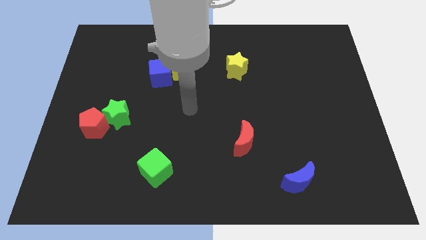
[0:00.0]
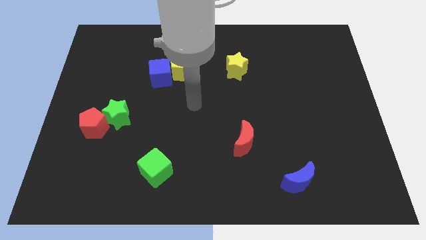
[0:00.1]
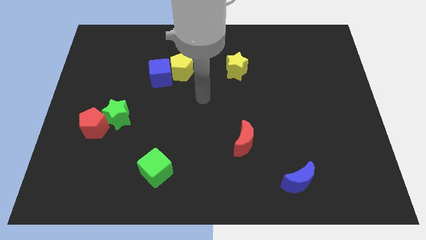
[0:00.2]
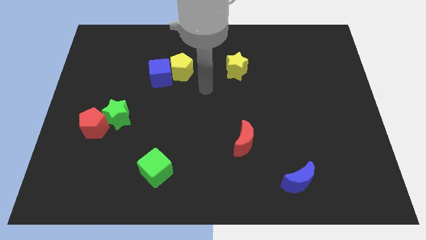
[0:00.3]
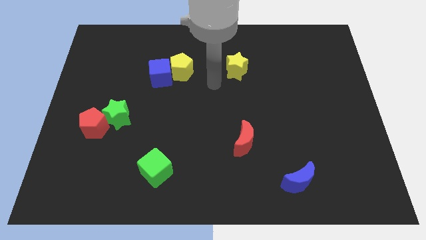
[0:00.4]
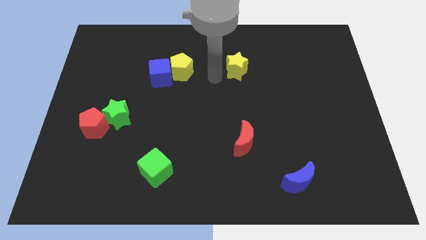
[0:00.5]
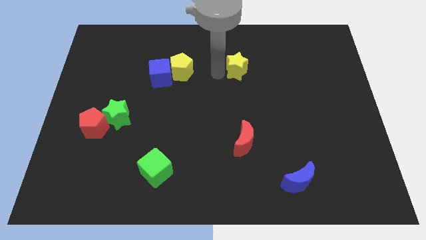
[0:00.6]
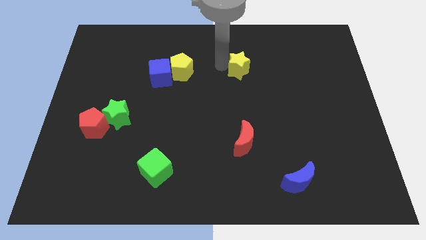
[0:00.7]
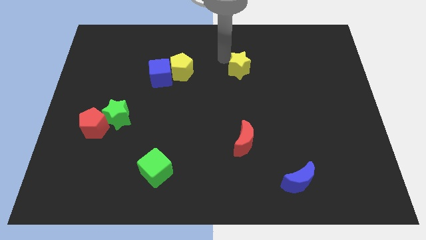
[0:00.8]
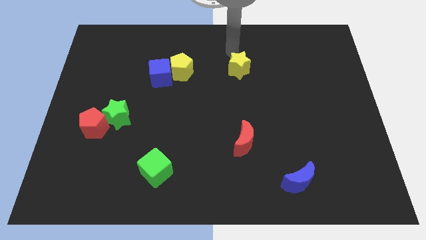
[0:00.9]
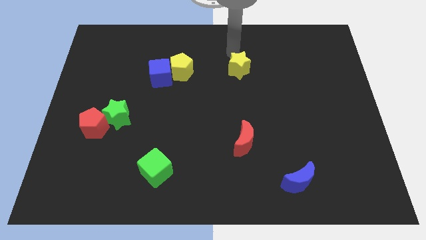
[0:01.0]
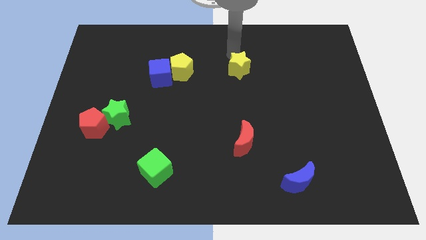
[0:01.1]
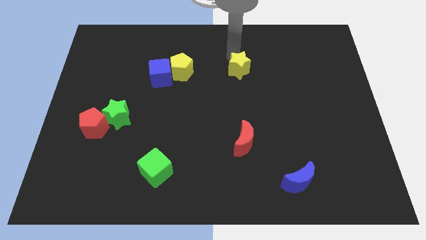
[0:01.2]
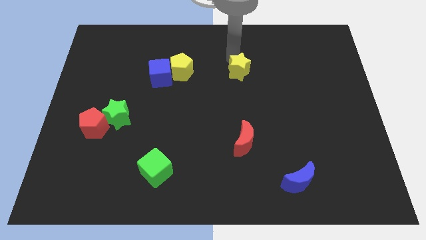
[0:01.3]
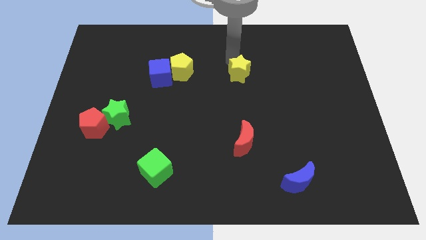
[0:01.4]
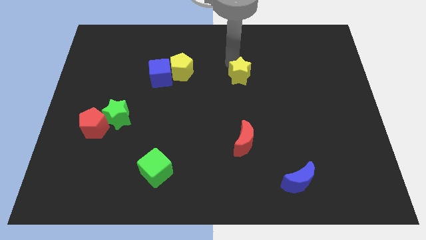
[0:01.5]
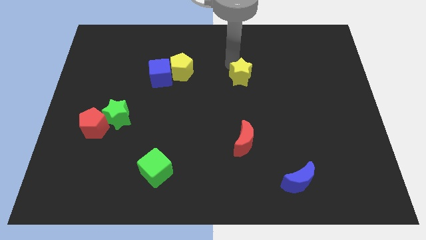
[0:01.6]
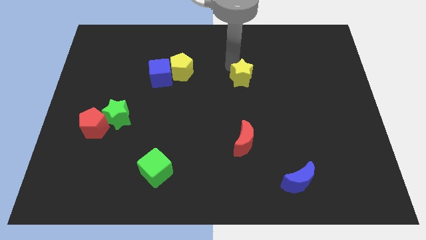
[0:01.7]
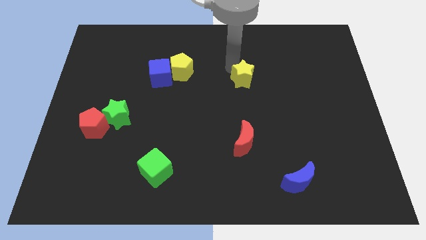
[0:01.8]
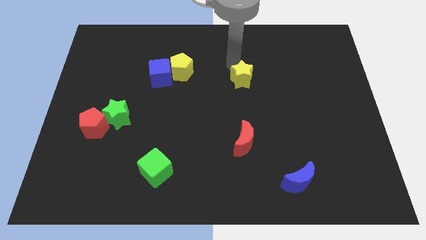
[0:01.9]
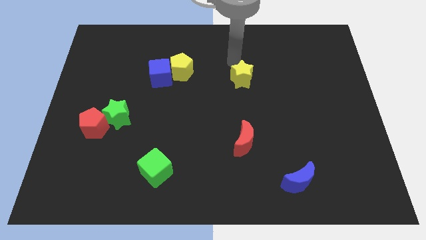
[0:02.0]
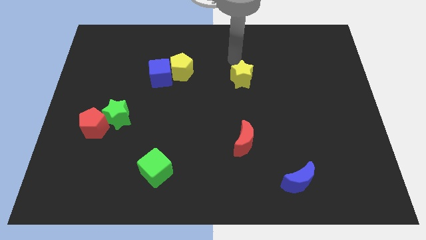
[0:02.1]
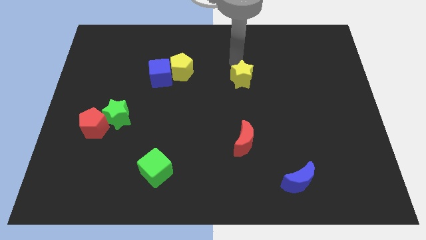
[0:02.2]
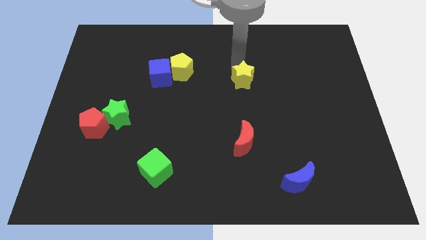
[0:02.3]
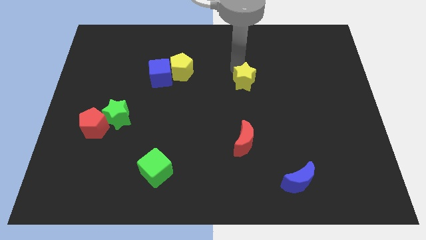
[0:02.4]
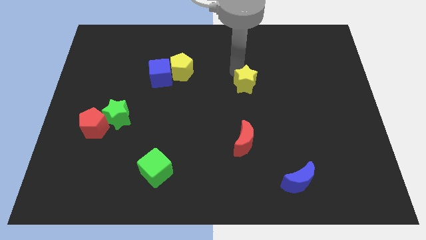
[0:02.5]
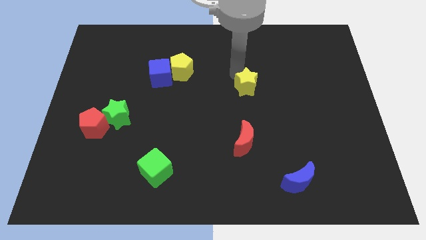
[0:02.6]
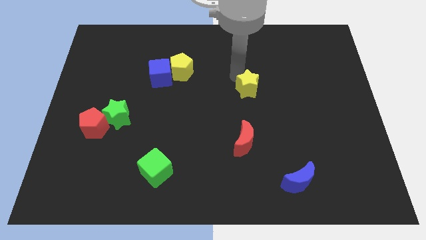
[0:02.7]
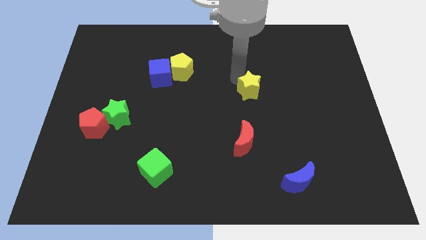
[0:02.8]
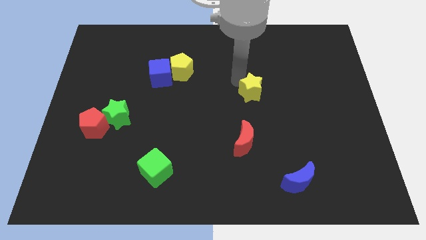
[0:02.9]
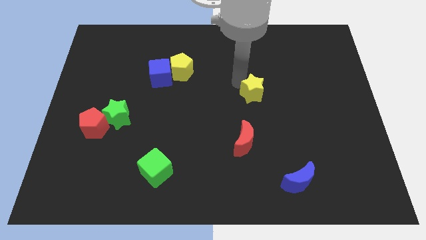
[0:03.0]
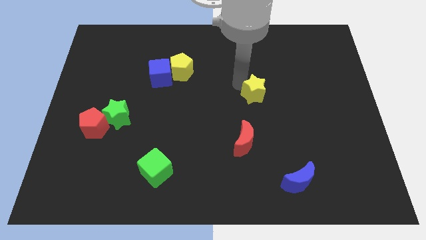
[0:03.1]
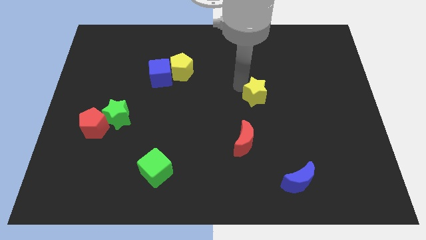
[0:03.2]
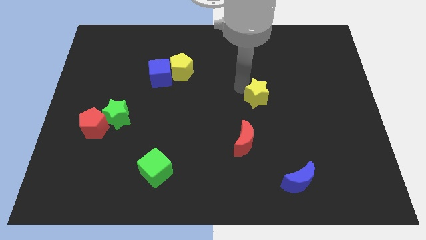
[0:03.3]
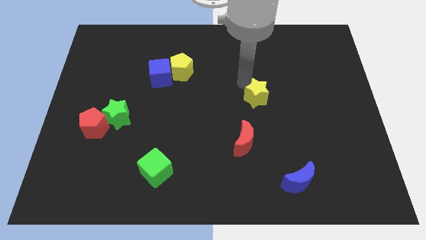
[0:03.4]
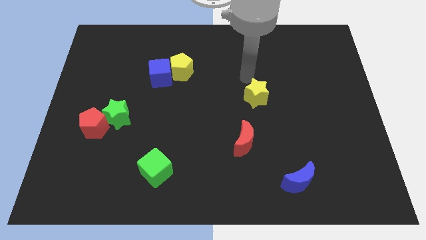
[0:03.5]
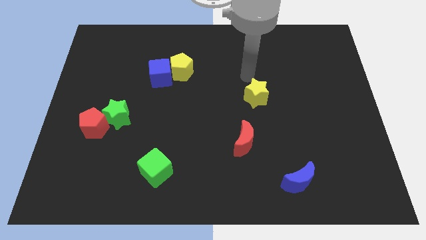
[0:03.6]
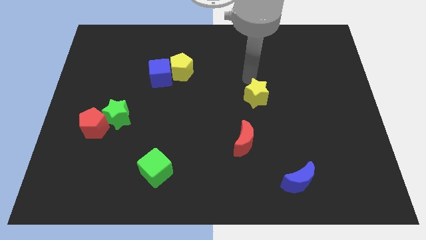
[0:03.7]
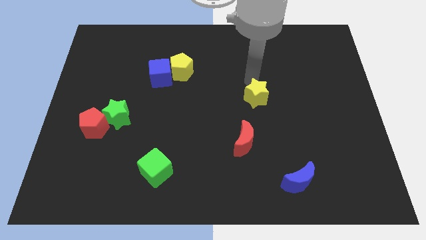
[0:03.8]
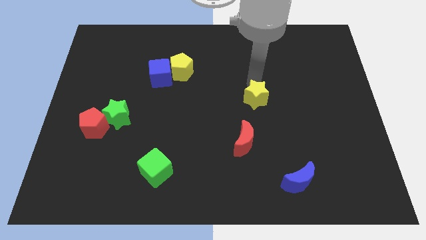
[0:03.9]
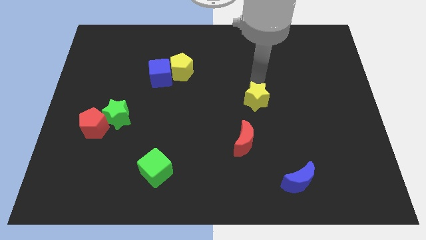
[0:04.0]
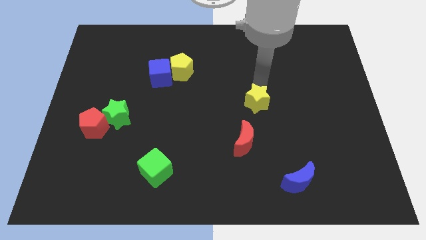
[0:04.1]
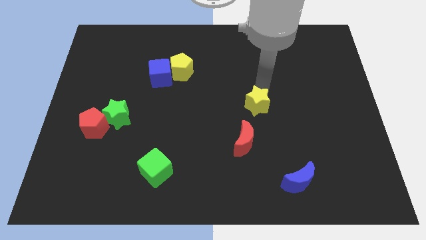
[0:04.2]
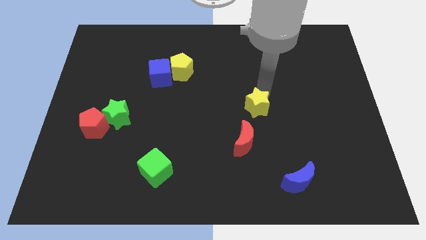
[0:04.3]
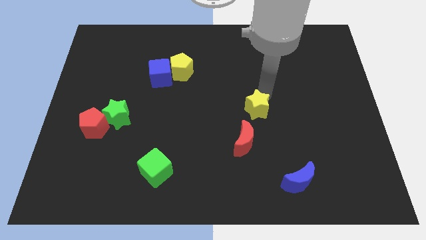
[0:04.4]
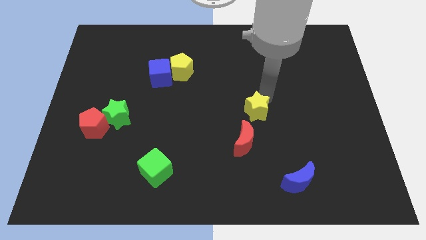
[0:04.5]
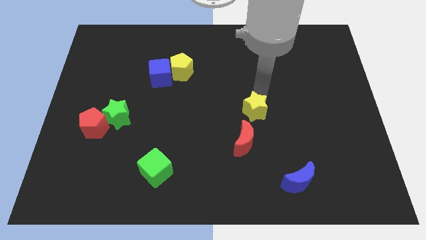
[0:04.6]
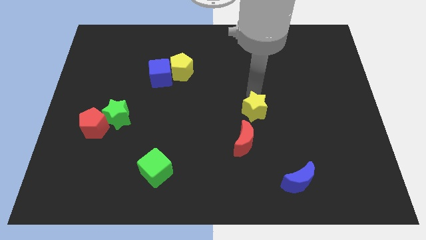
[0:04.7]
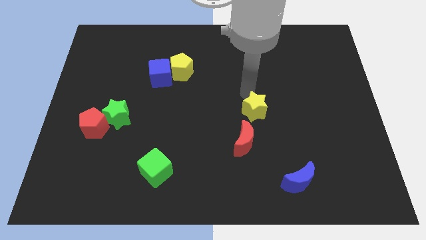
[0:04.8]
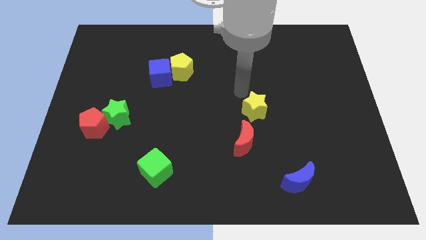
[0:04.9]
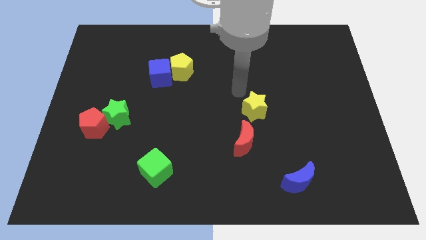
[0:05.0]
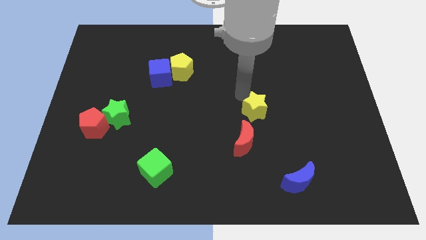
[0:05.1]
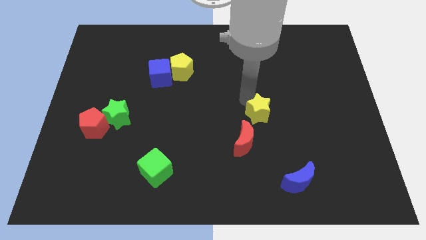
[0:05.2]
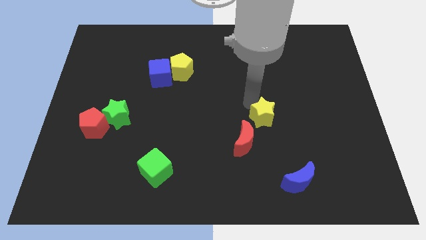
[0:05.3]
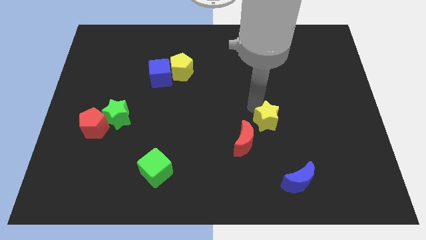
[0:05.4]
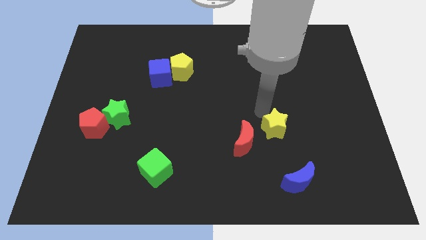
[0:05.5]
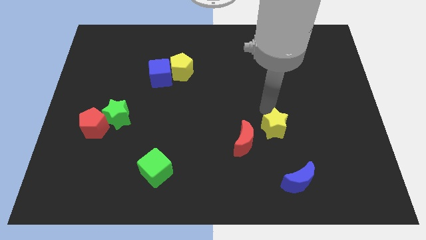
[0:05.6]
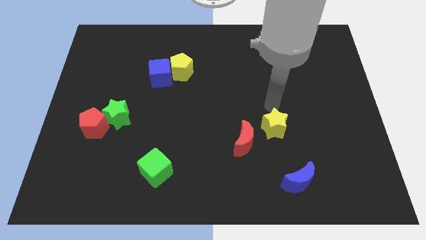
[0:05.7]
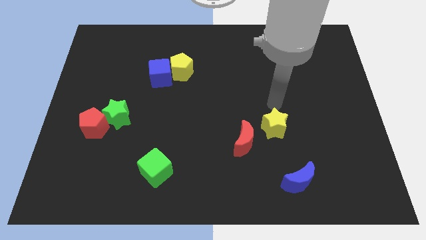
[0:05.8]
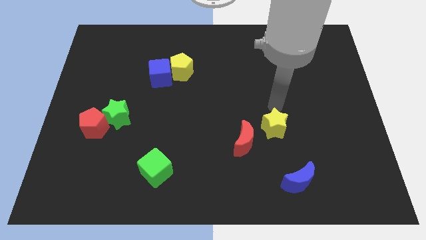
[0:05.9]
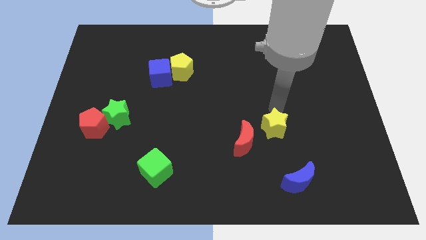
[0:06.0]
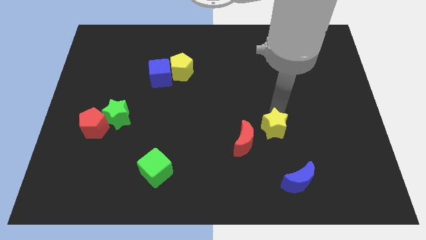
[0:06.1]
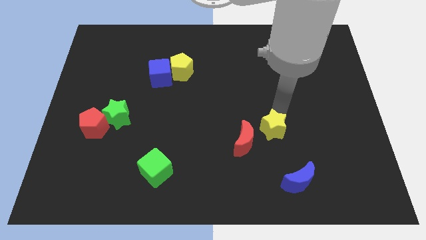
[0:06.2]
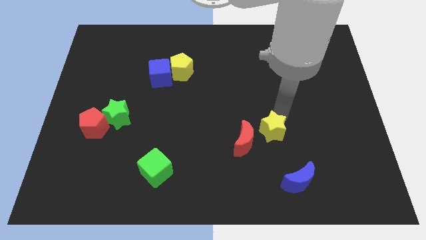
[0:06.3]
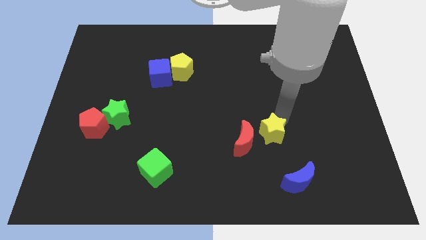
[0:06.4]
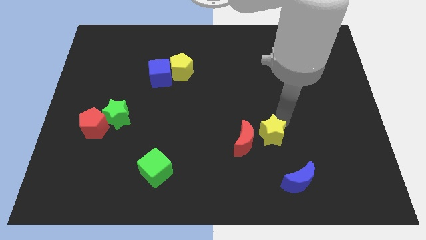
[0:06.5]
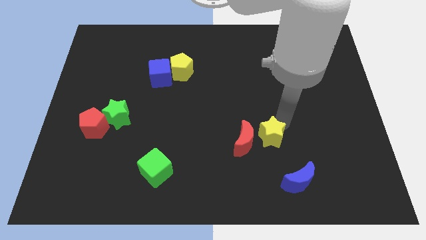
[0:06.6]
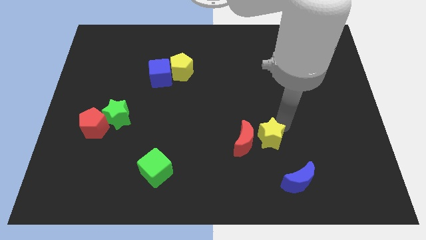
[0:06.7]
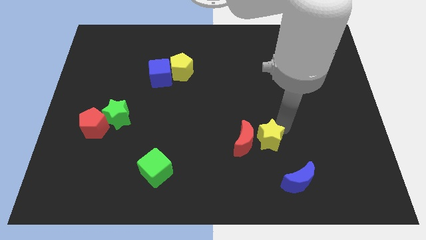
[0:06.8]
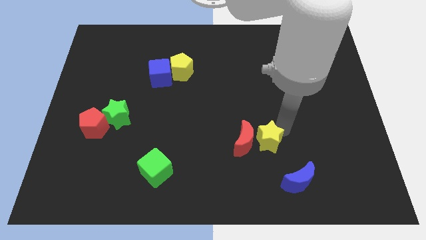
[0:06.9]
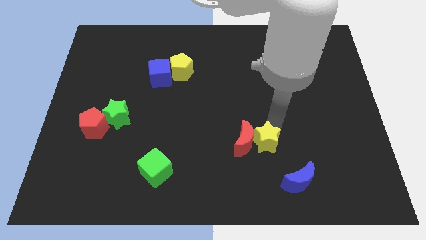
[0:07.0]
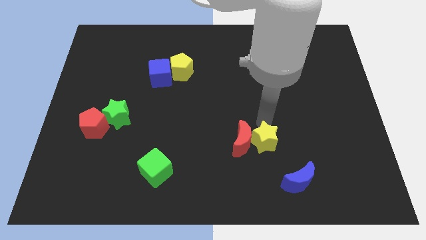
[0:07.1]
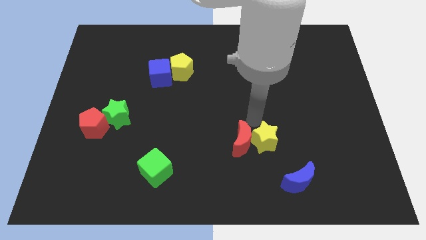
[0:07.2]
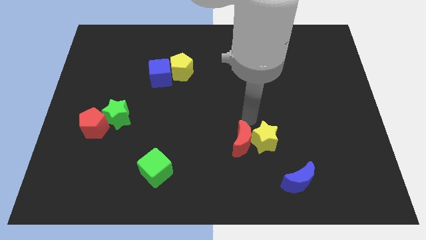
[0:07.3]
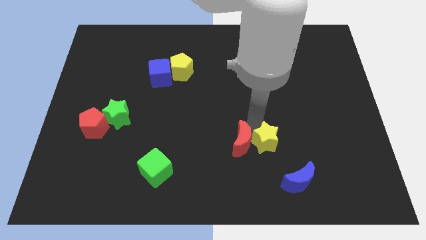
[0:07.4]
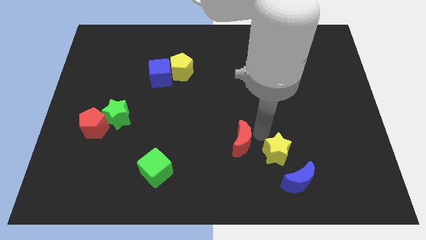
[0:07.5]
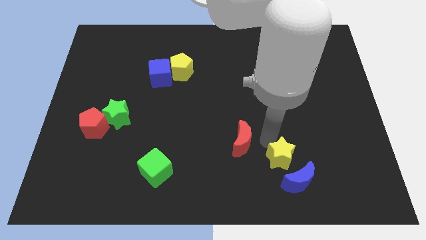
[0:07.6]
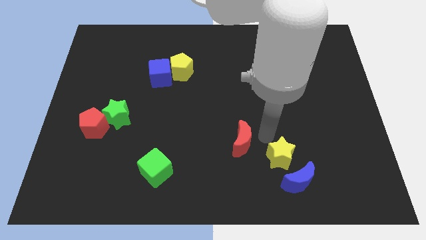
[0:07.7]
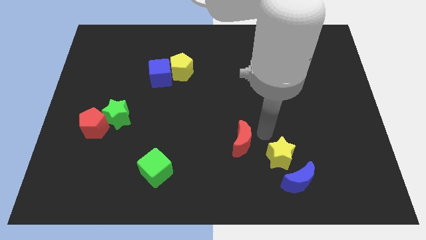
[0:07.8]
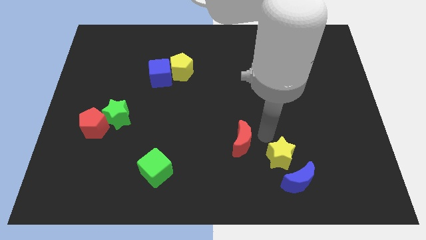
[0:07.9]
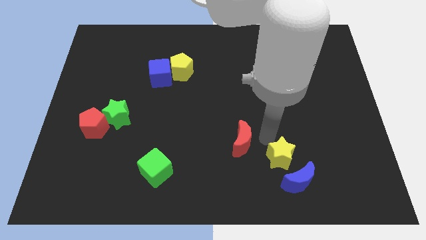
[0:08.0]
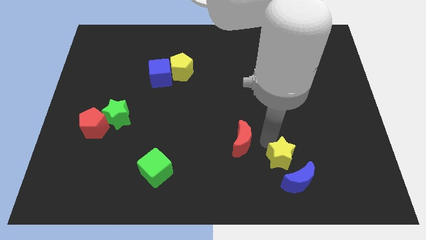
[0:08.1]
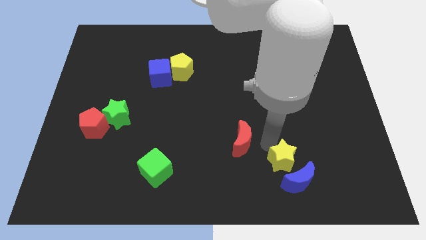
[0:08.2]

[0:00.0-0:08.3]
push the yellow star to the blue moon
